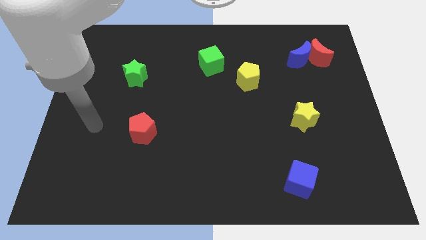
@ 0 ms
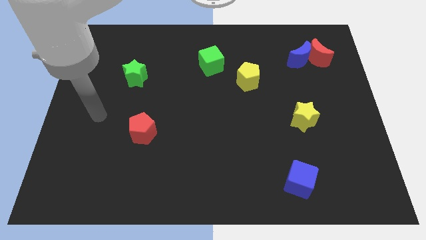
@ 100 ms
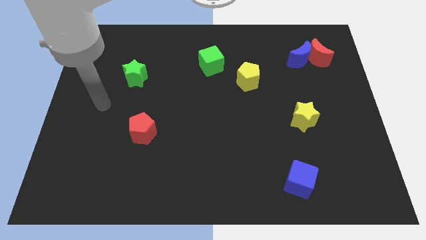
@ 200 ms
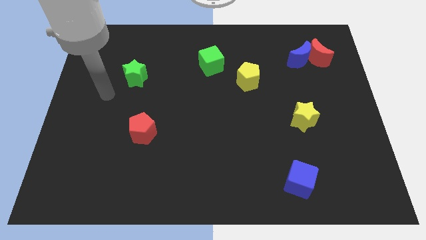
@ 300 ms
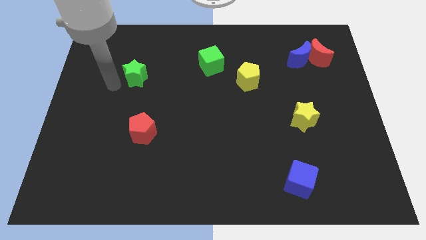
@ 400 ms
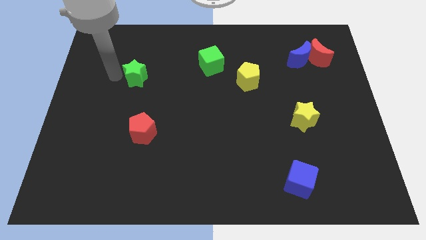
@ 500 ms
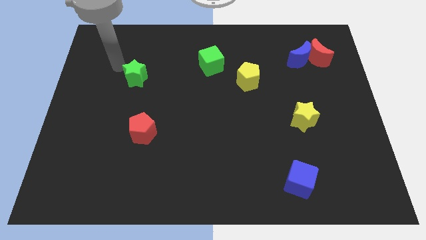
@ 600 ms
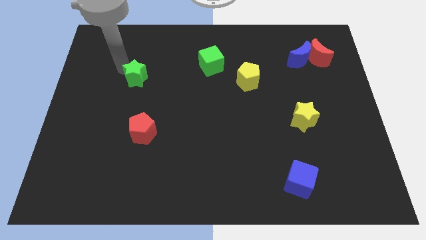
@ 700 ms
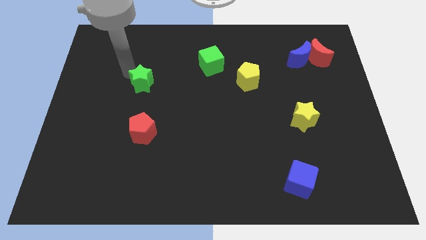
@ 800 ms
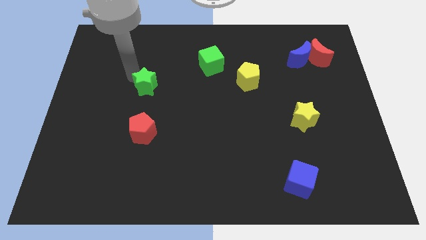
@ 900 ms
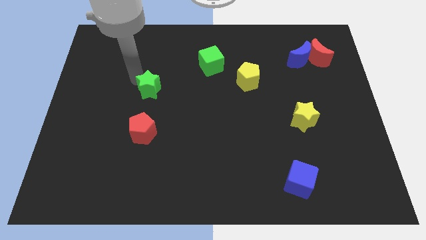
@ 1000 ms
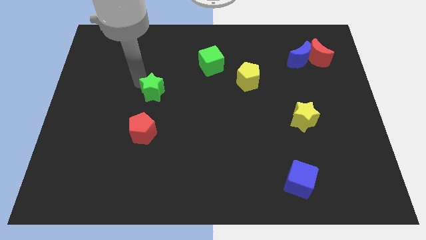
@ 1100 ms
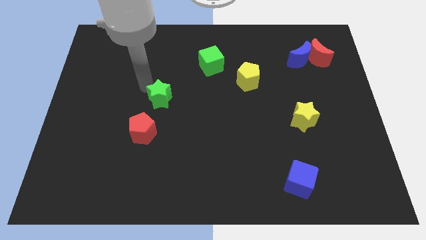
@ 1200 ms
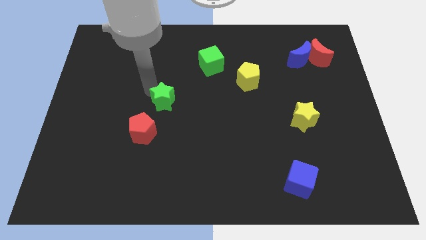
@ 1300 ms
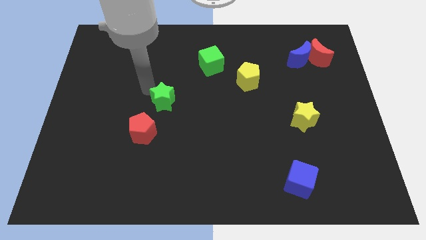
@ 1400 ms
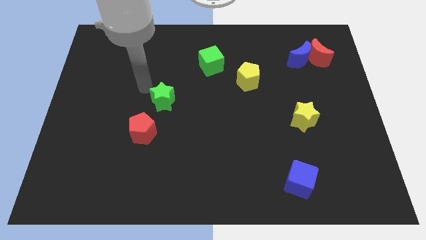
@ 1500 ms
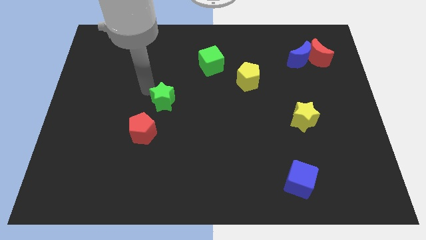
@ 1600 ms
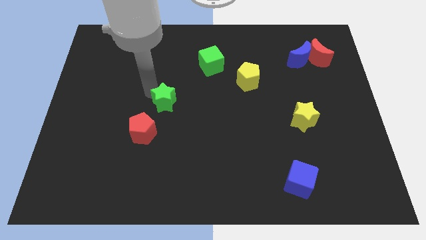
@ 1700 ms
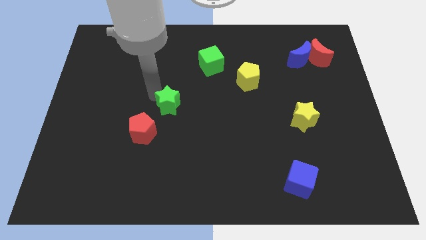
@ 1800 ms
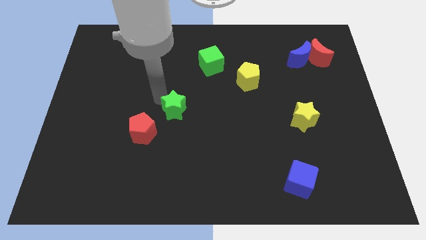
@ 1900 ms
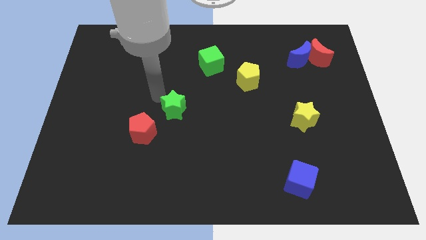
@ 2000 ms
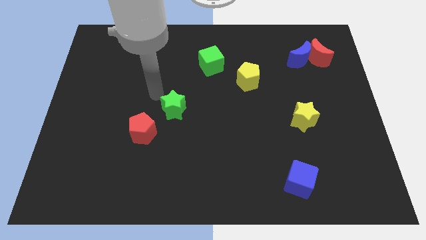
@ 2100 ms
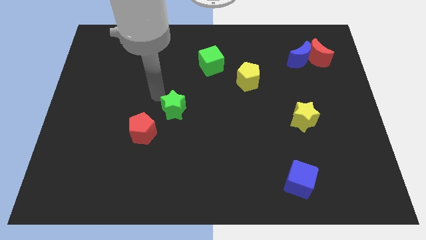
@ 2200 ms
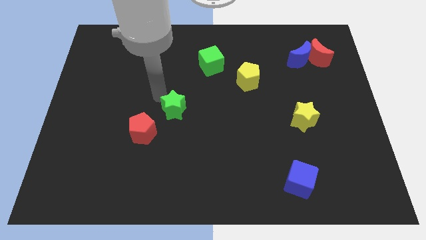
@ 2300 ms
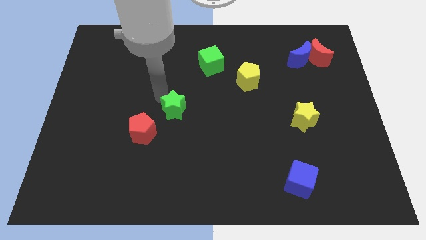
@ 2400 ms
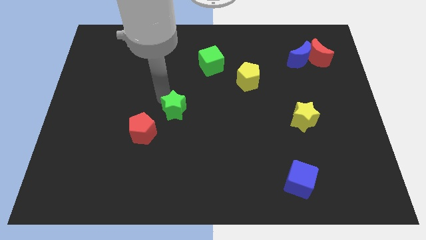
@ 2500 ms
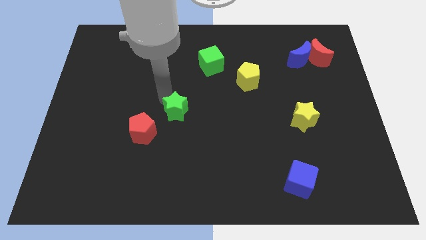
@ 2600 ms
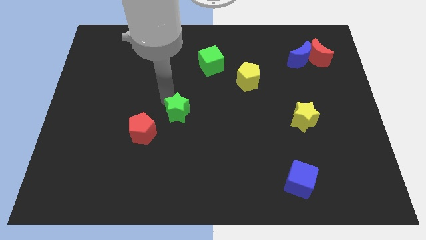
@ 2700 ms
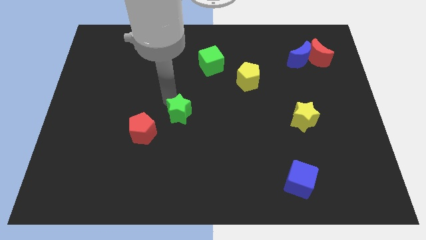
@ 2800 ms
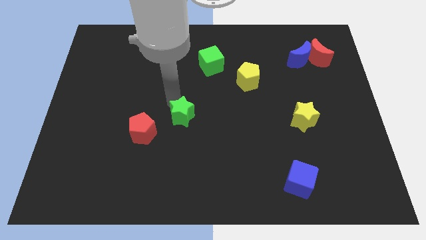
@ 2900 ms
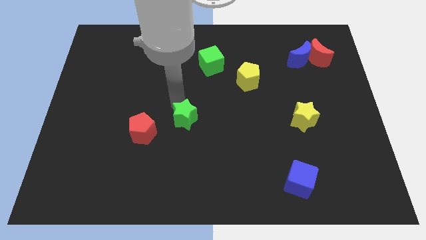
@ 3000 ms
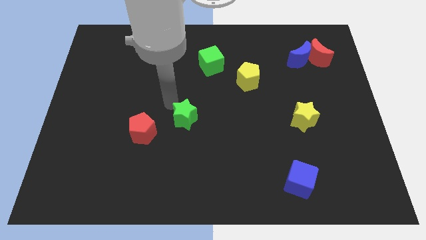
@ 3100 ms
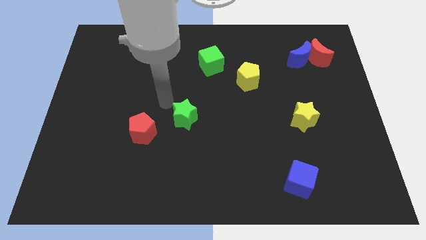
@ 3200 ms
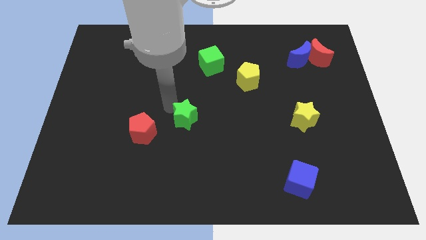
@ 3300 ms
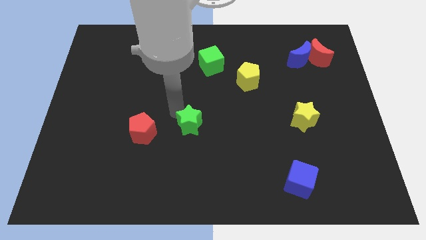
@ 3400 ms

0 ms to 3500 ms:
move the green star downwards and to the right

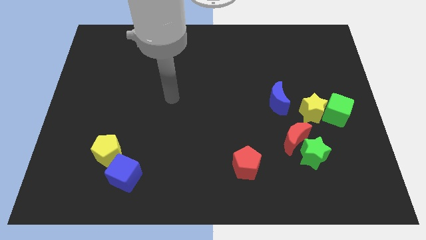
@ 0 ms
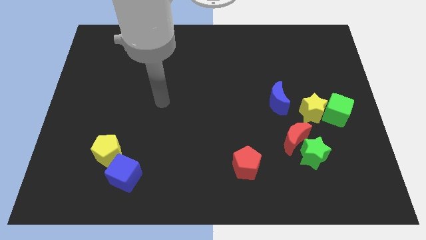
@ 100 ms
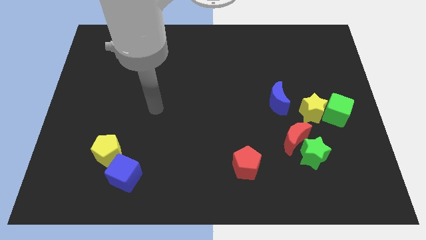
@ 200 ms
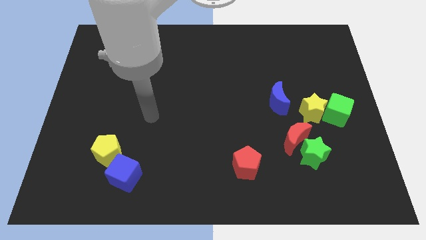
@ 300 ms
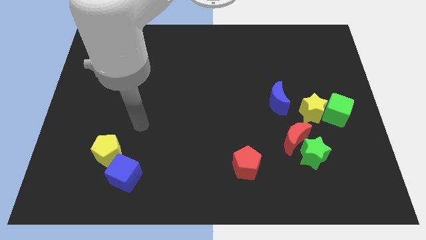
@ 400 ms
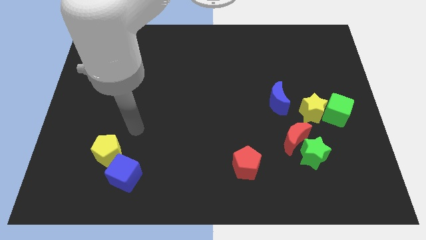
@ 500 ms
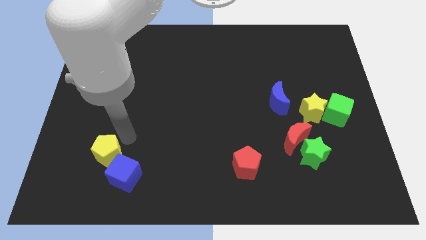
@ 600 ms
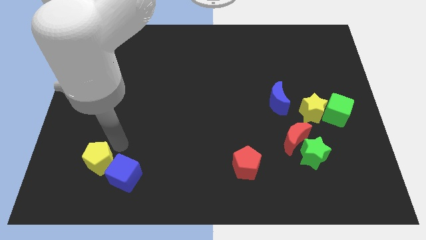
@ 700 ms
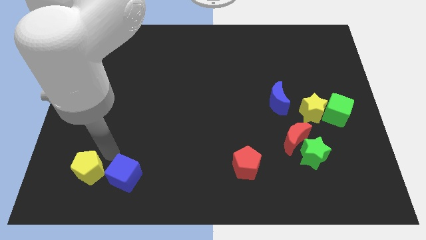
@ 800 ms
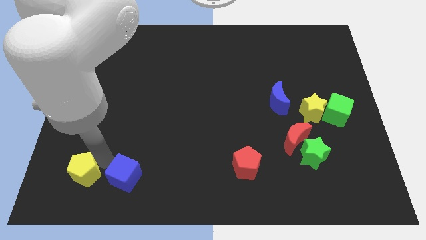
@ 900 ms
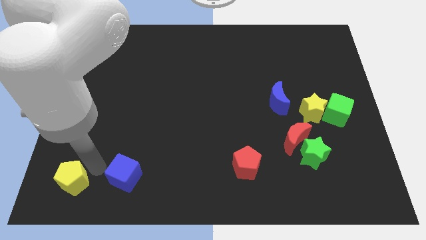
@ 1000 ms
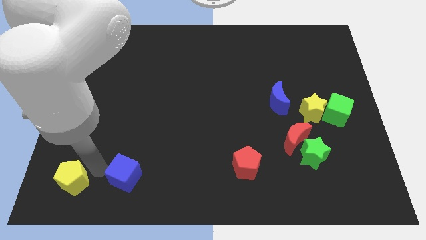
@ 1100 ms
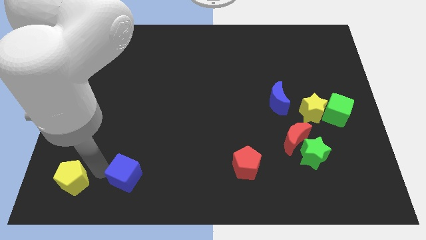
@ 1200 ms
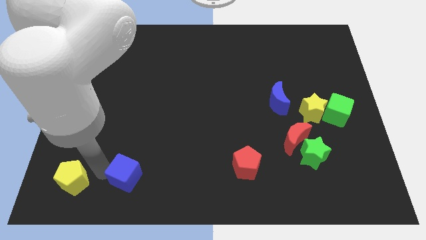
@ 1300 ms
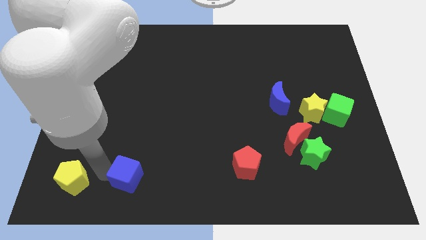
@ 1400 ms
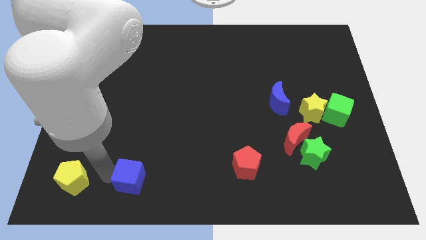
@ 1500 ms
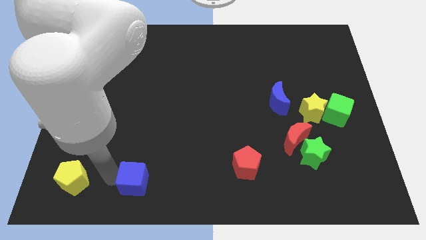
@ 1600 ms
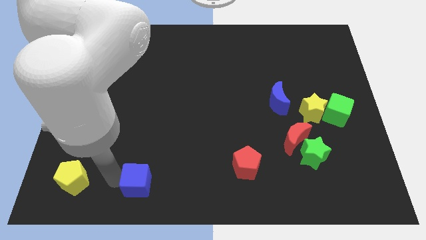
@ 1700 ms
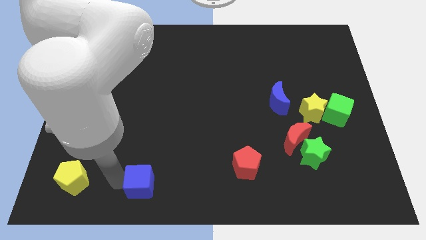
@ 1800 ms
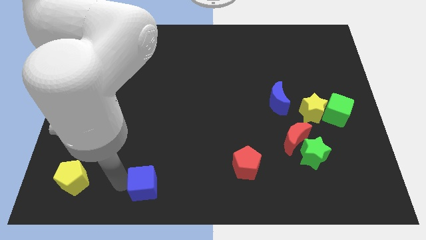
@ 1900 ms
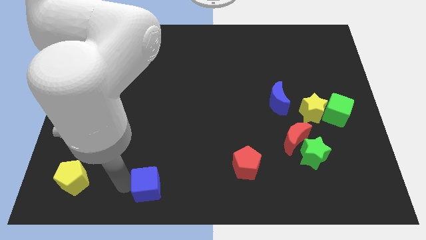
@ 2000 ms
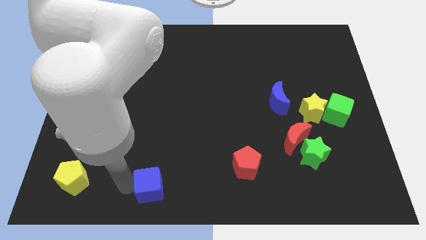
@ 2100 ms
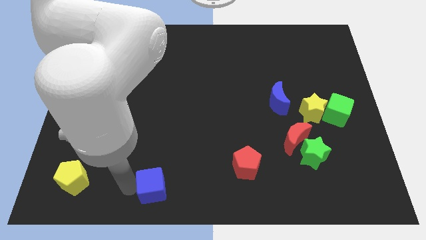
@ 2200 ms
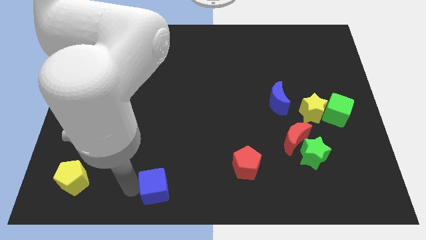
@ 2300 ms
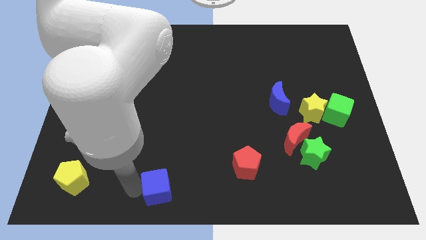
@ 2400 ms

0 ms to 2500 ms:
slightly slide the blue cube right

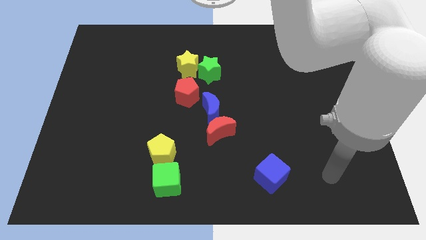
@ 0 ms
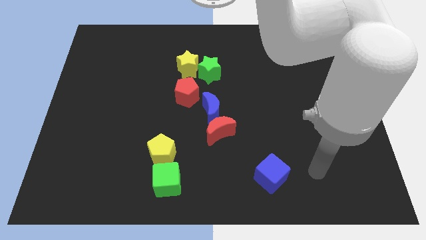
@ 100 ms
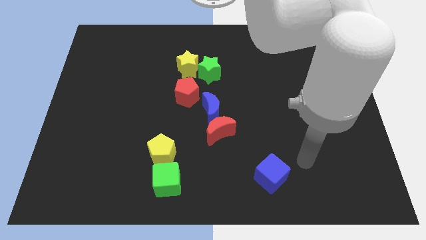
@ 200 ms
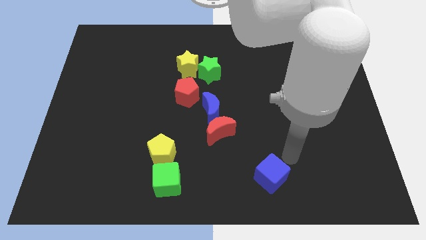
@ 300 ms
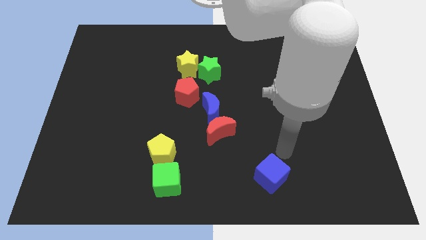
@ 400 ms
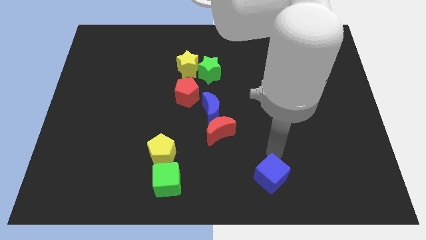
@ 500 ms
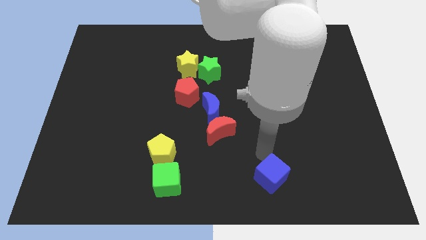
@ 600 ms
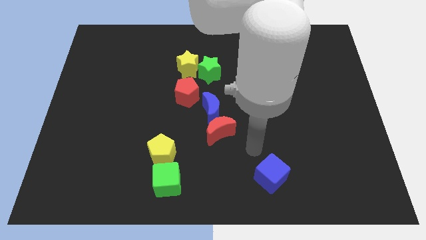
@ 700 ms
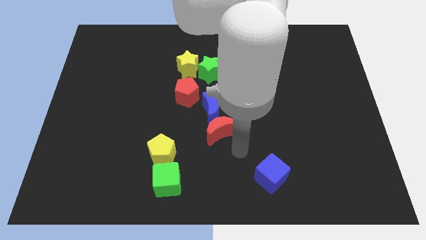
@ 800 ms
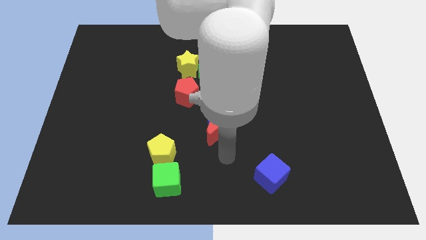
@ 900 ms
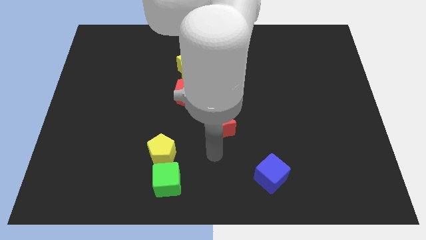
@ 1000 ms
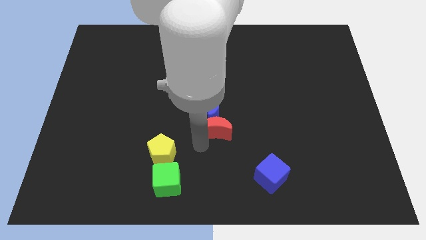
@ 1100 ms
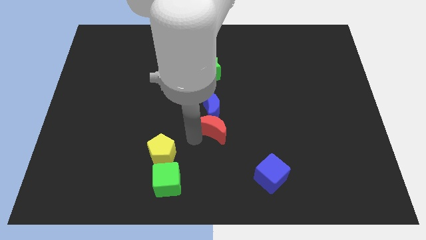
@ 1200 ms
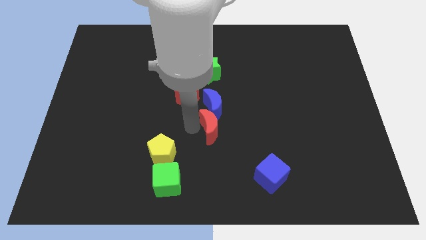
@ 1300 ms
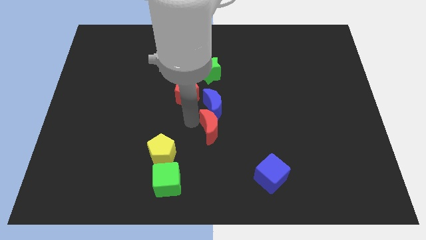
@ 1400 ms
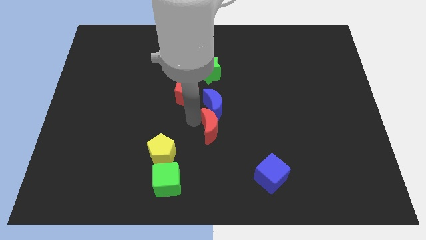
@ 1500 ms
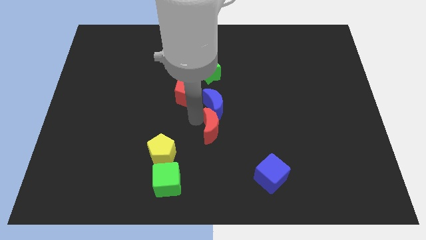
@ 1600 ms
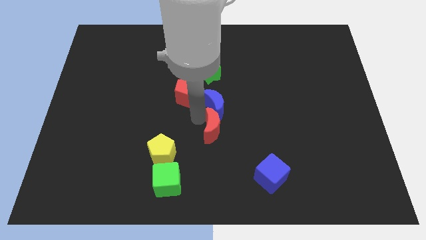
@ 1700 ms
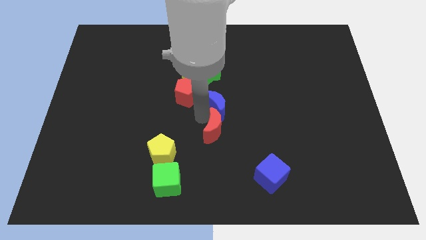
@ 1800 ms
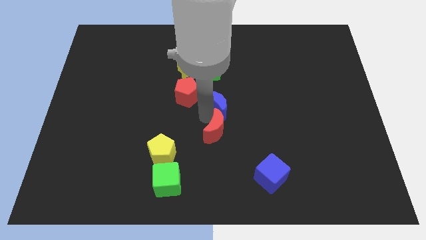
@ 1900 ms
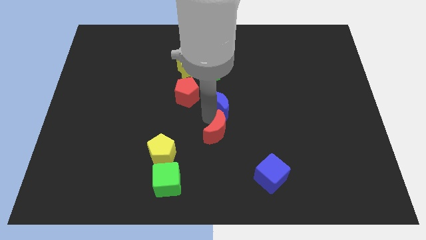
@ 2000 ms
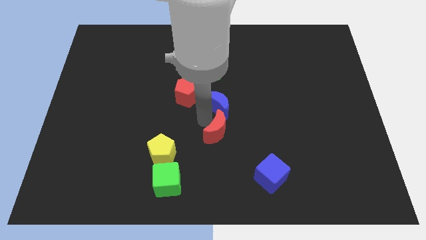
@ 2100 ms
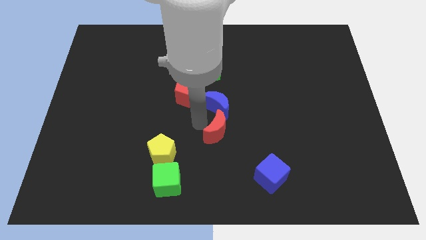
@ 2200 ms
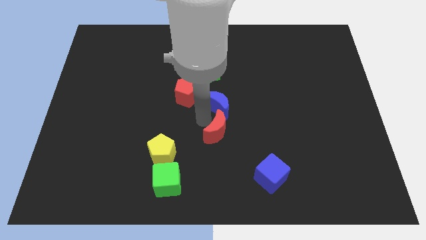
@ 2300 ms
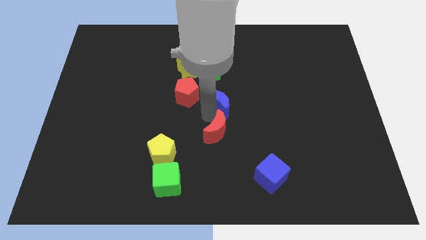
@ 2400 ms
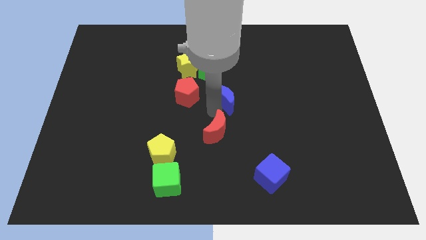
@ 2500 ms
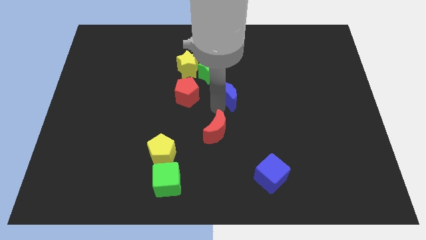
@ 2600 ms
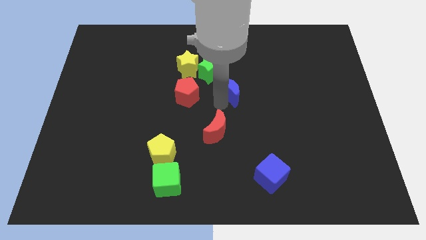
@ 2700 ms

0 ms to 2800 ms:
push the blue moon diagonally up and to the right a bit
